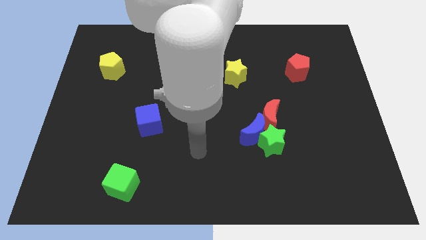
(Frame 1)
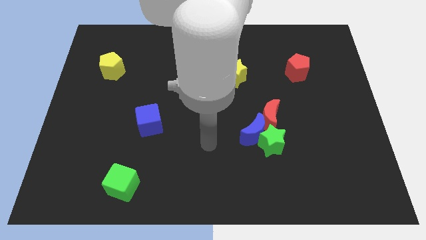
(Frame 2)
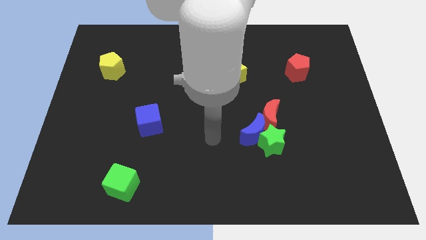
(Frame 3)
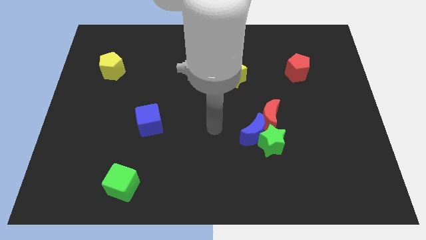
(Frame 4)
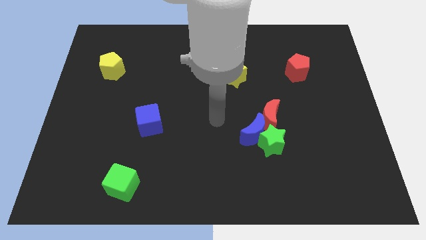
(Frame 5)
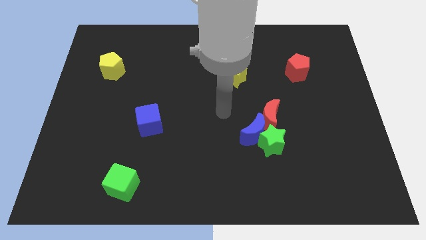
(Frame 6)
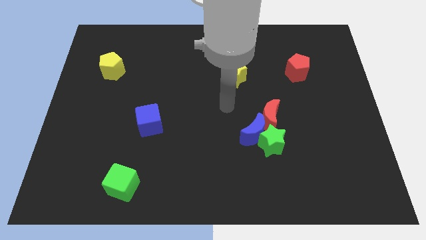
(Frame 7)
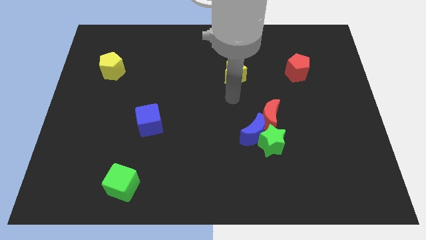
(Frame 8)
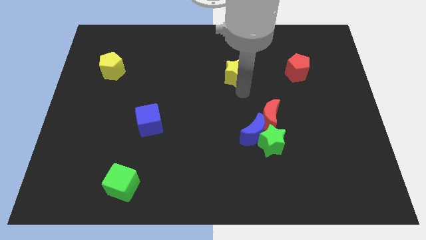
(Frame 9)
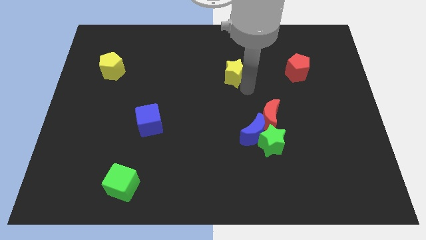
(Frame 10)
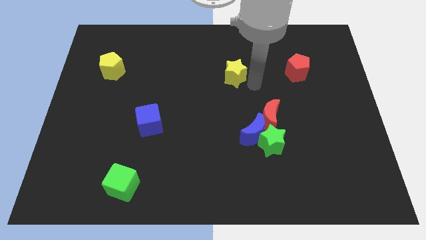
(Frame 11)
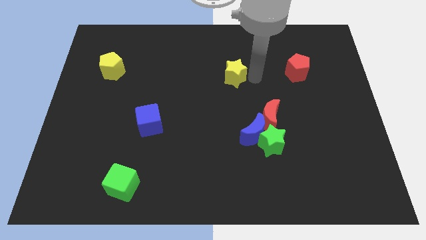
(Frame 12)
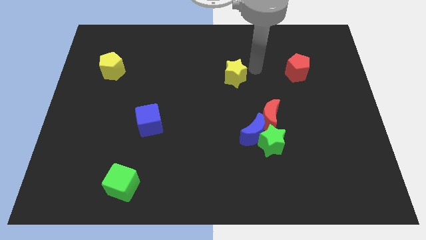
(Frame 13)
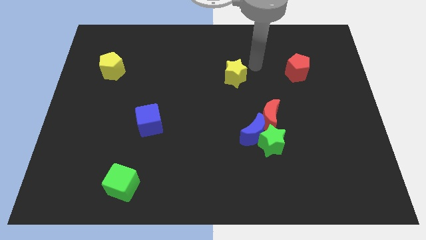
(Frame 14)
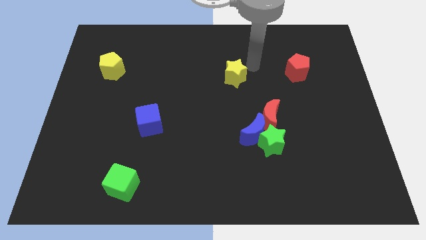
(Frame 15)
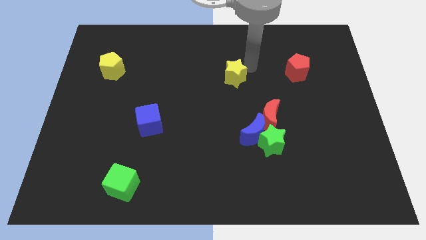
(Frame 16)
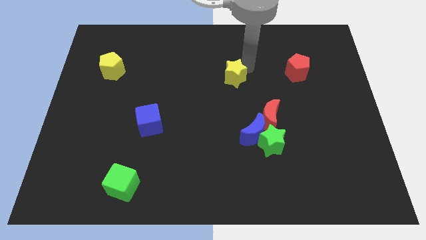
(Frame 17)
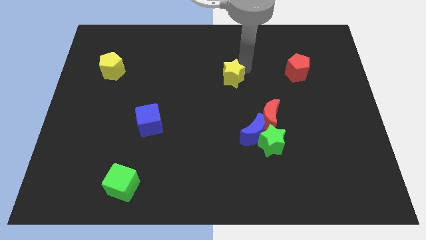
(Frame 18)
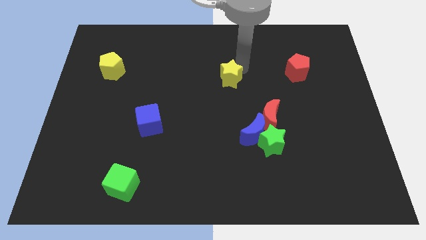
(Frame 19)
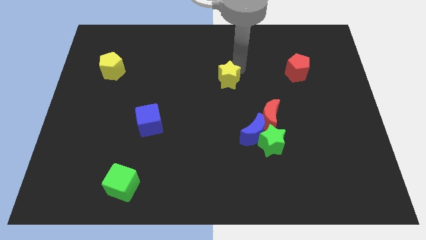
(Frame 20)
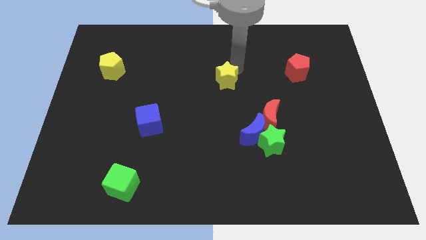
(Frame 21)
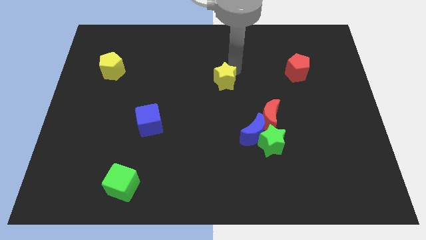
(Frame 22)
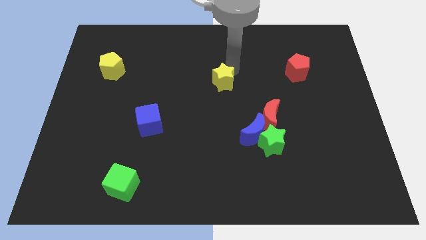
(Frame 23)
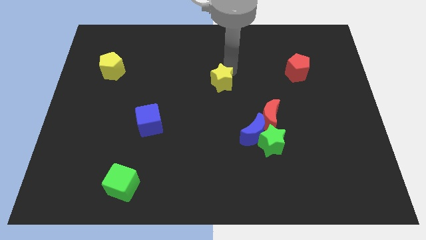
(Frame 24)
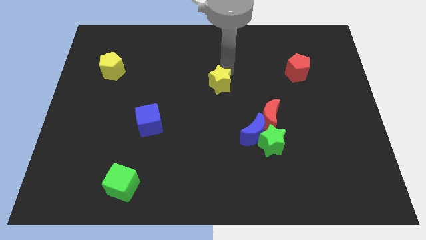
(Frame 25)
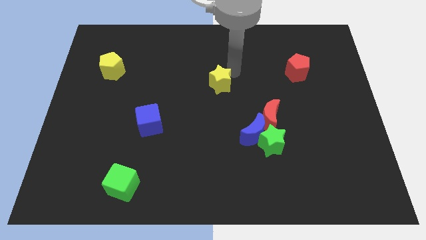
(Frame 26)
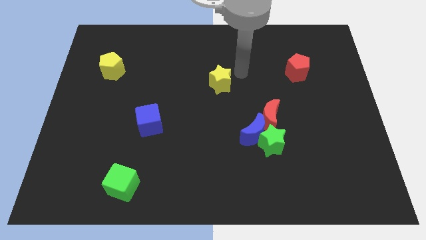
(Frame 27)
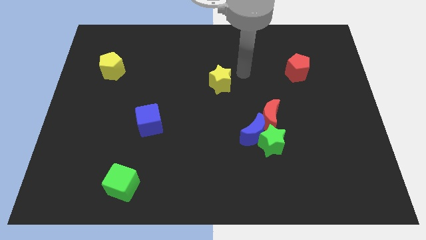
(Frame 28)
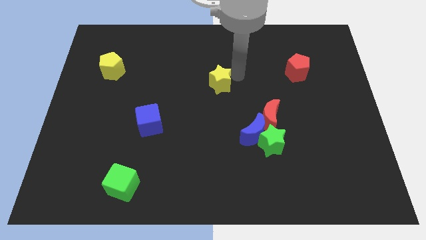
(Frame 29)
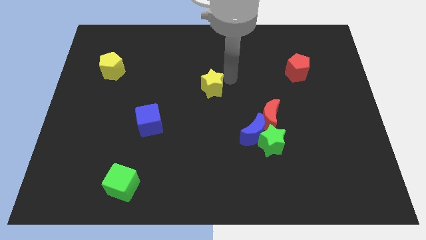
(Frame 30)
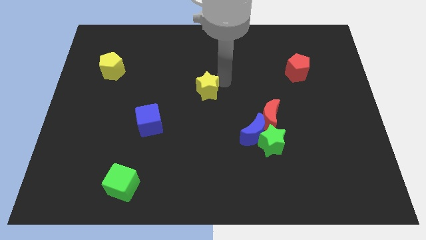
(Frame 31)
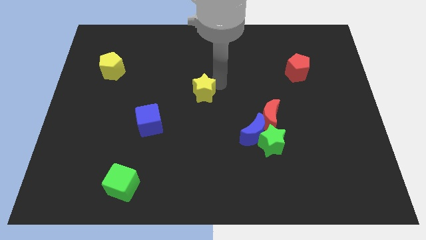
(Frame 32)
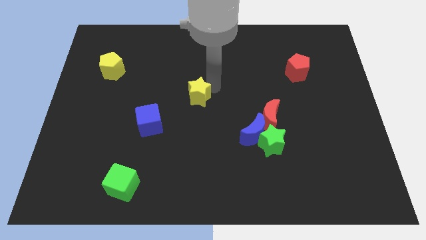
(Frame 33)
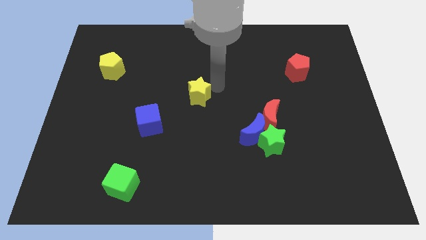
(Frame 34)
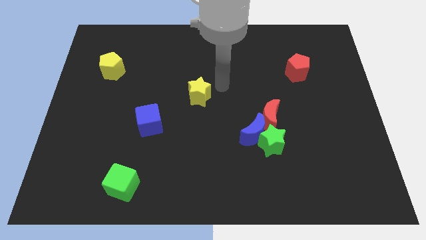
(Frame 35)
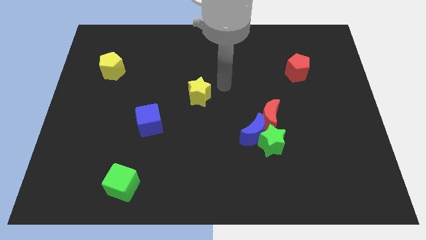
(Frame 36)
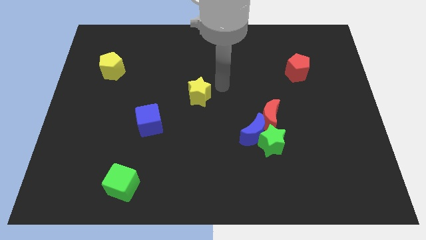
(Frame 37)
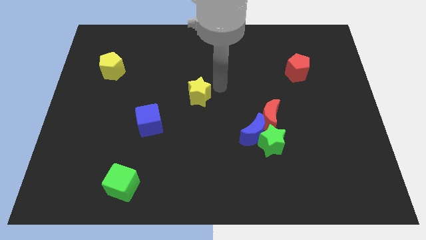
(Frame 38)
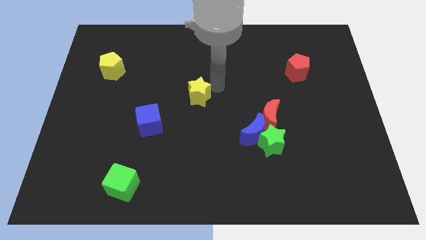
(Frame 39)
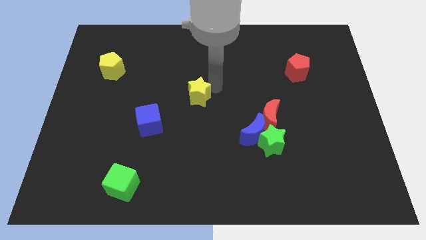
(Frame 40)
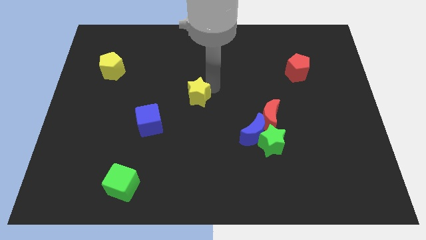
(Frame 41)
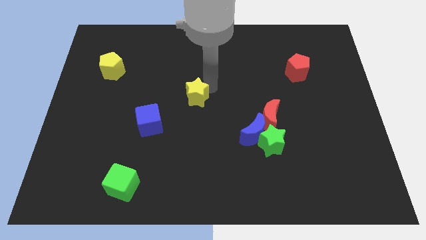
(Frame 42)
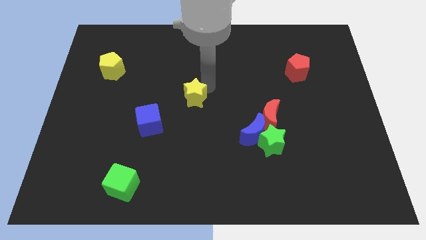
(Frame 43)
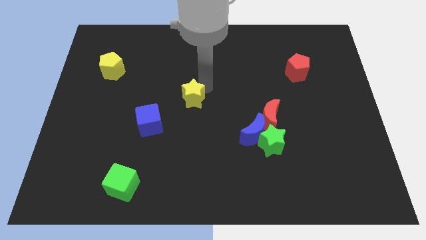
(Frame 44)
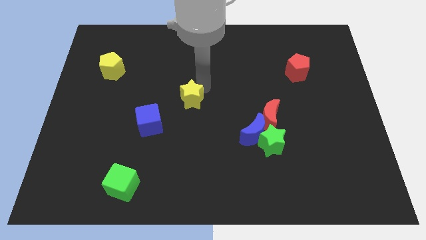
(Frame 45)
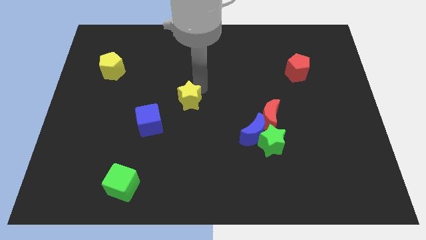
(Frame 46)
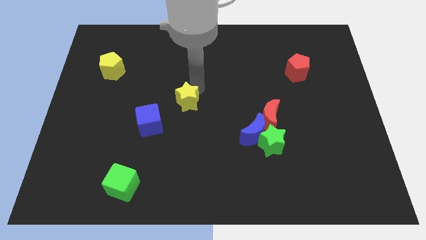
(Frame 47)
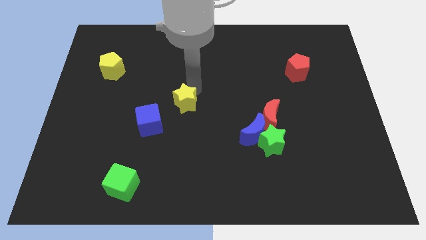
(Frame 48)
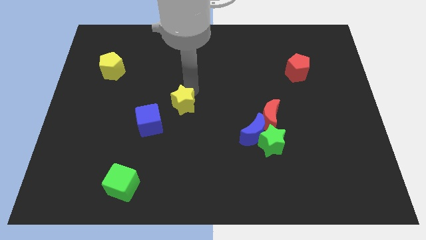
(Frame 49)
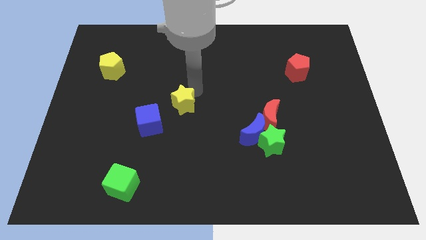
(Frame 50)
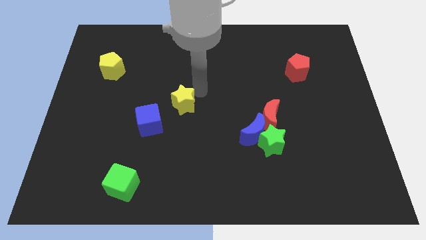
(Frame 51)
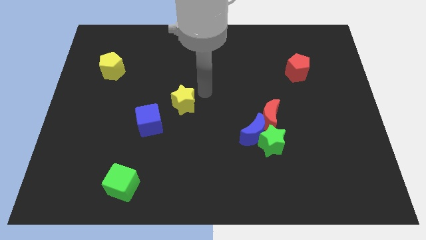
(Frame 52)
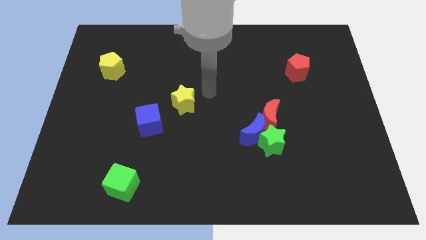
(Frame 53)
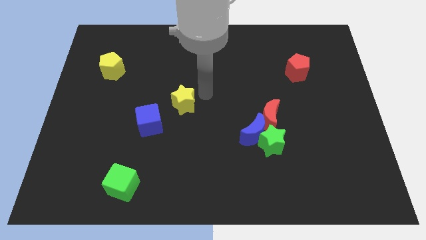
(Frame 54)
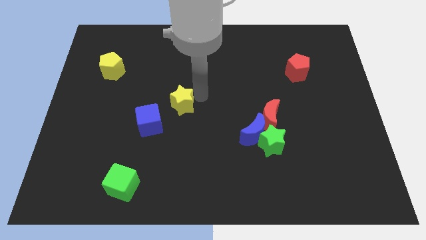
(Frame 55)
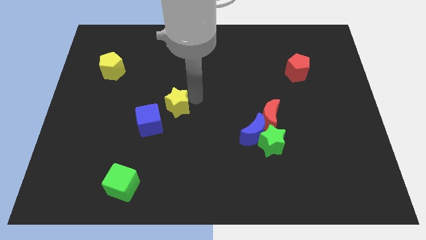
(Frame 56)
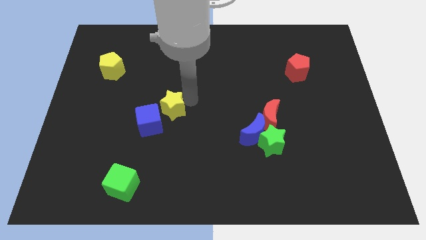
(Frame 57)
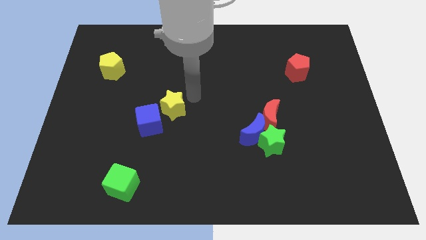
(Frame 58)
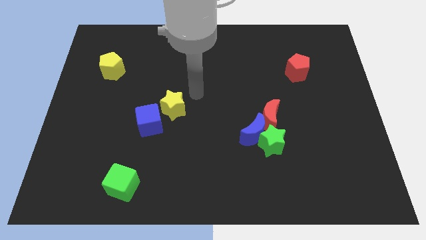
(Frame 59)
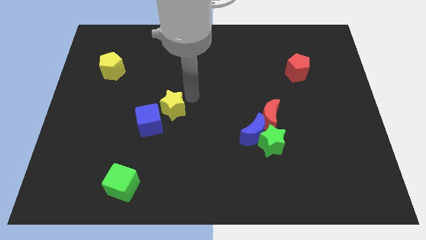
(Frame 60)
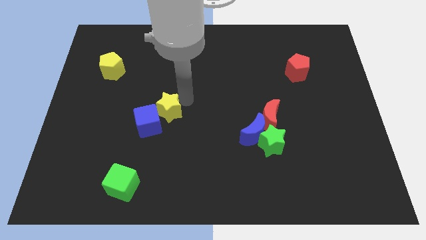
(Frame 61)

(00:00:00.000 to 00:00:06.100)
slide the yellow star next to the blue cube

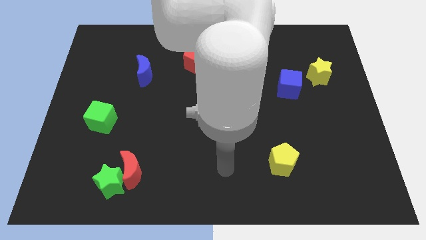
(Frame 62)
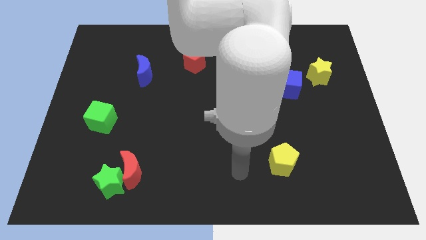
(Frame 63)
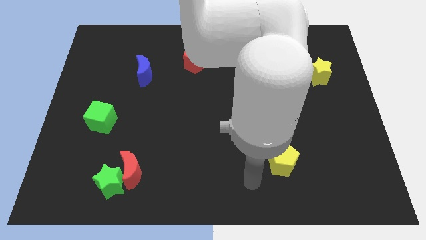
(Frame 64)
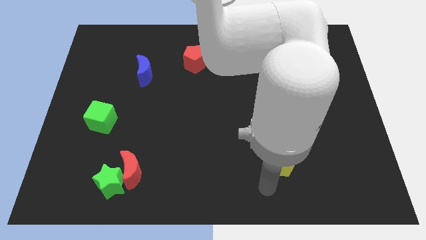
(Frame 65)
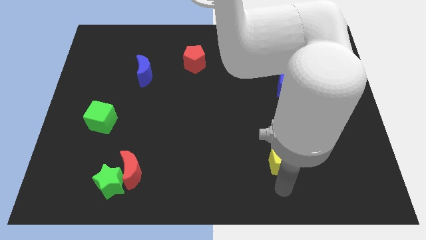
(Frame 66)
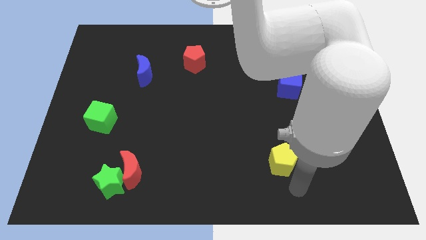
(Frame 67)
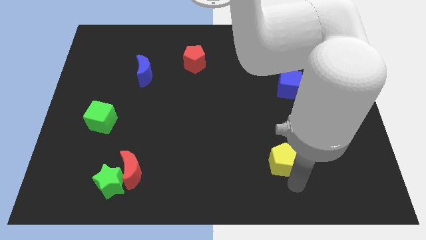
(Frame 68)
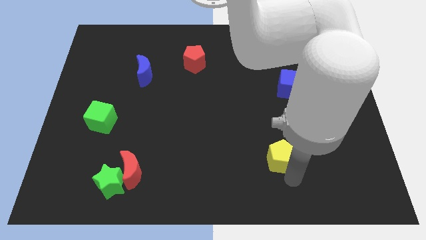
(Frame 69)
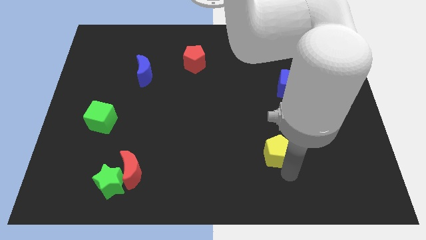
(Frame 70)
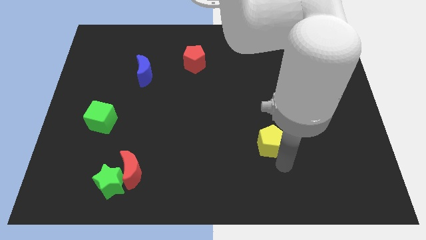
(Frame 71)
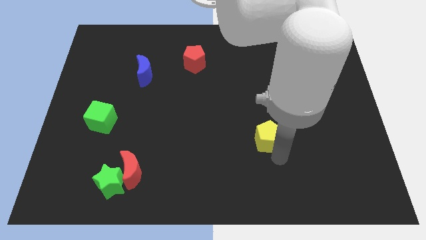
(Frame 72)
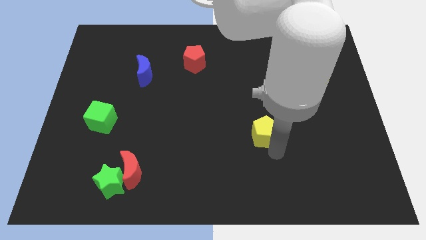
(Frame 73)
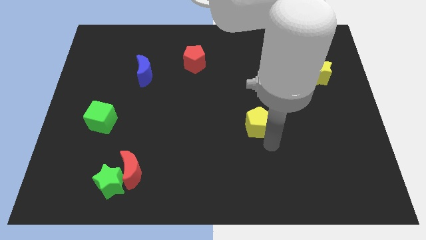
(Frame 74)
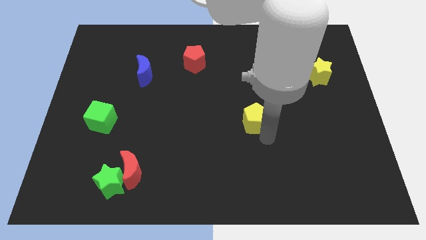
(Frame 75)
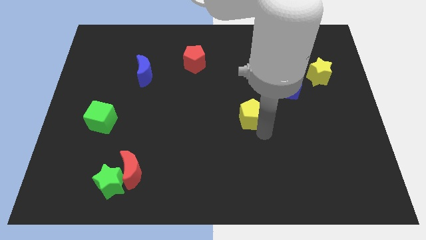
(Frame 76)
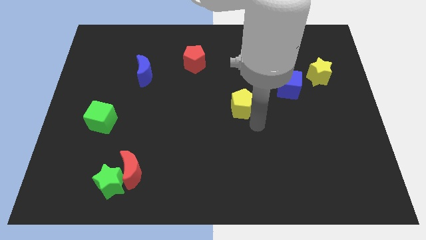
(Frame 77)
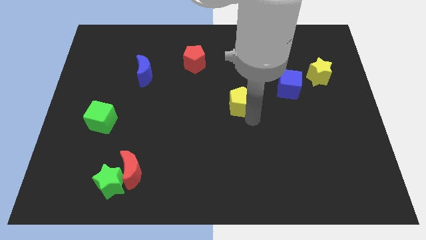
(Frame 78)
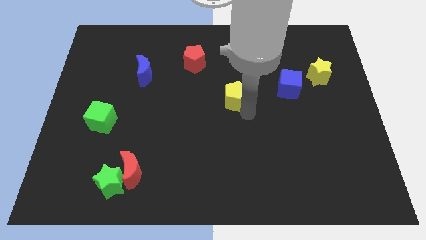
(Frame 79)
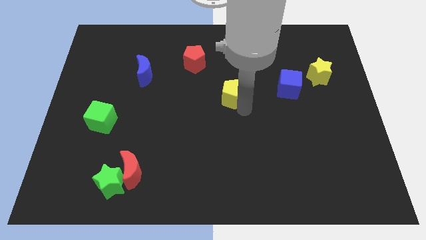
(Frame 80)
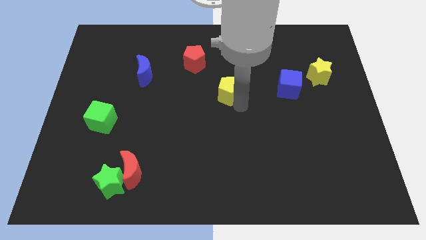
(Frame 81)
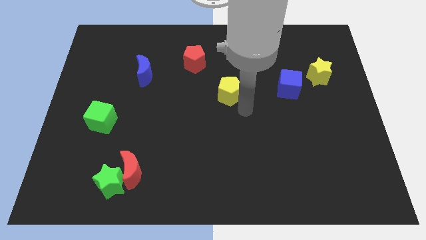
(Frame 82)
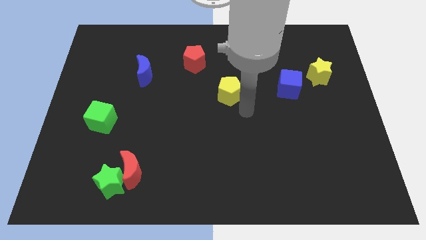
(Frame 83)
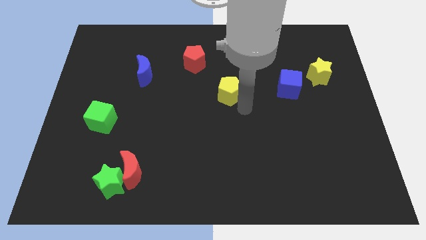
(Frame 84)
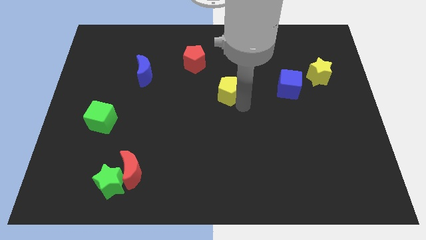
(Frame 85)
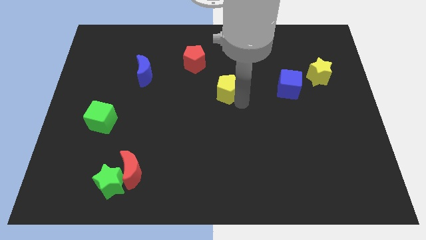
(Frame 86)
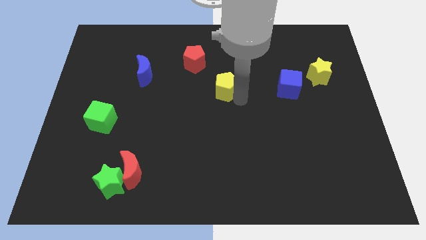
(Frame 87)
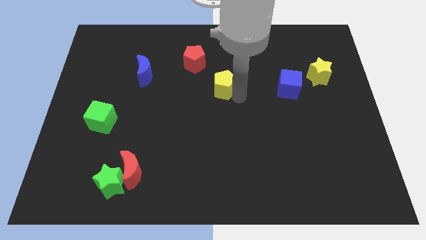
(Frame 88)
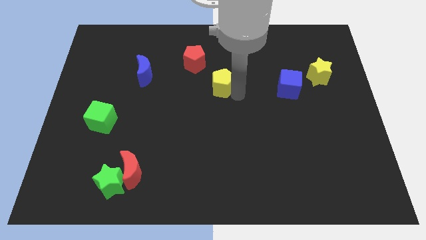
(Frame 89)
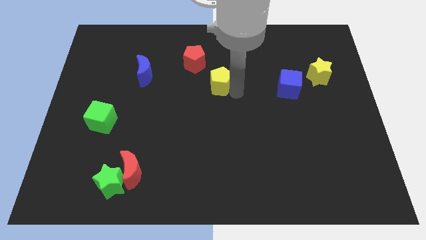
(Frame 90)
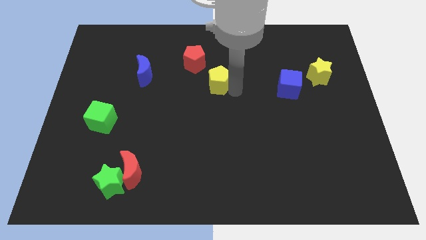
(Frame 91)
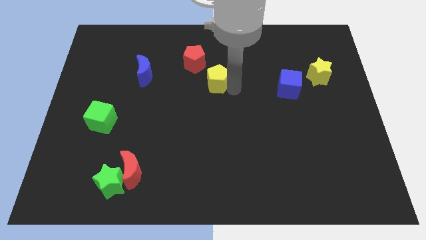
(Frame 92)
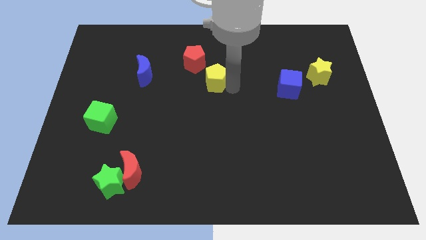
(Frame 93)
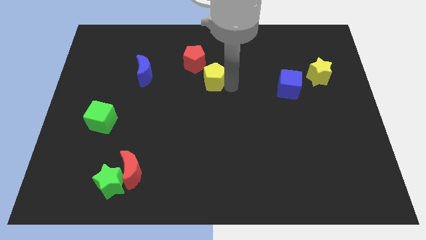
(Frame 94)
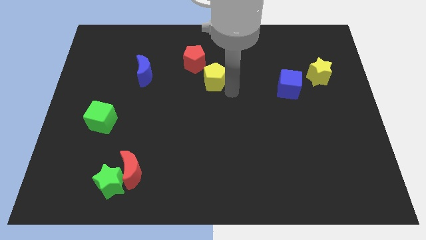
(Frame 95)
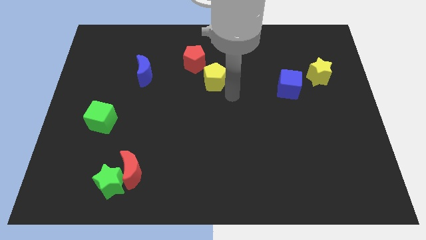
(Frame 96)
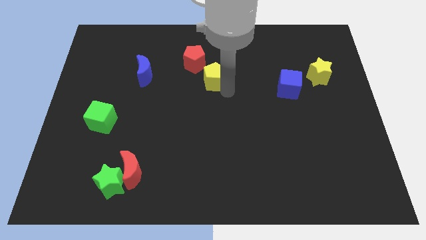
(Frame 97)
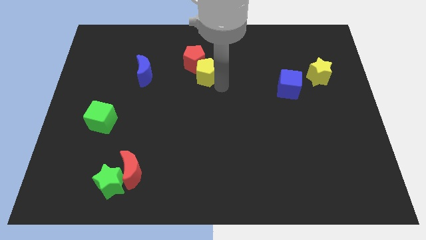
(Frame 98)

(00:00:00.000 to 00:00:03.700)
put the yellow pentagon next to the red pentagon
